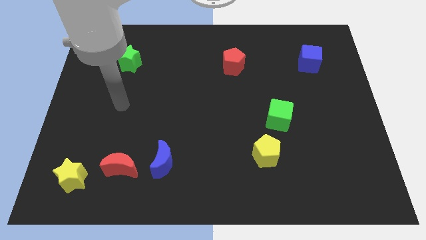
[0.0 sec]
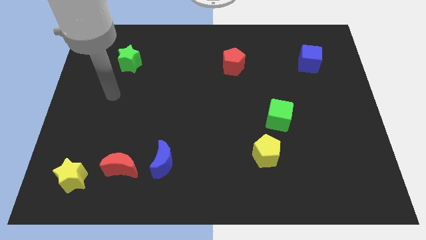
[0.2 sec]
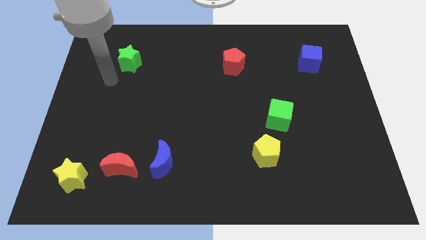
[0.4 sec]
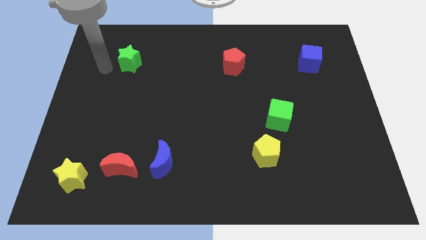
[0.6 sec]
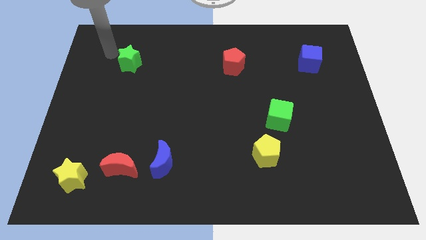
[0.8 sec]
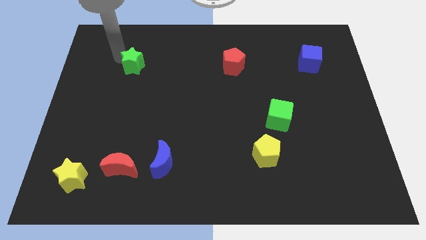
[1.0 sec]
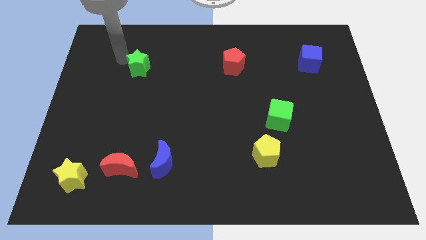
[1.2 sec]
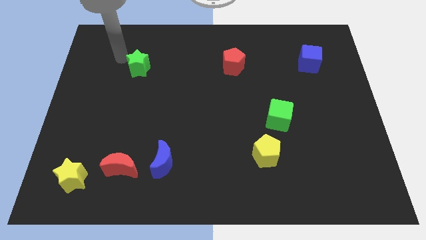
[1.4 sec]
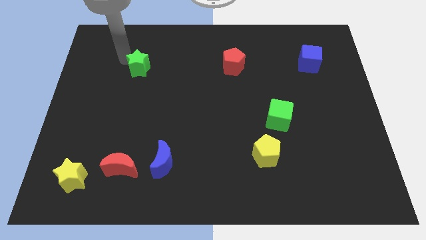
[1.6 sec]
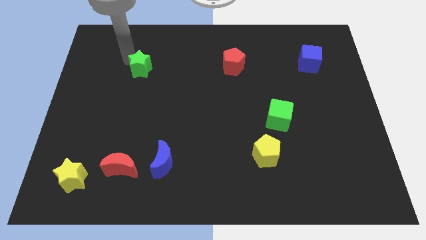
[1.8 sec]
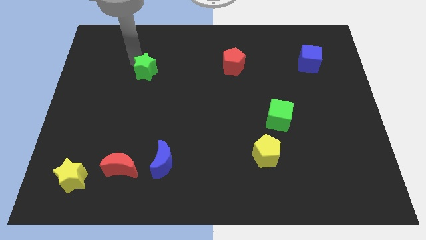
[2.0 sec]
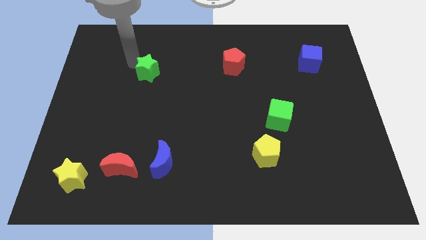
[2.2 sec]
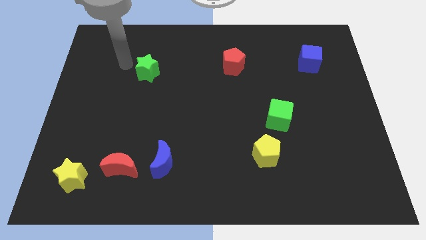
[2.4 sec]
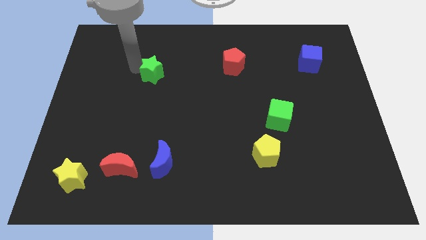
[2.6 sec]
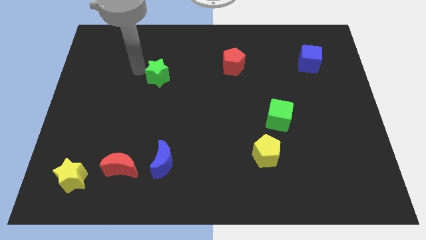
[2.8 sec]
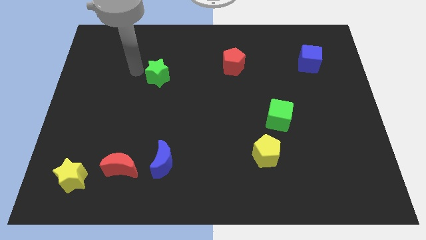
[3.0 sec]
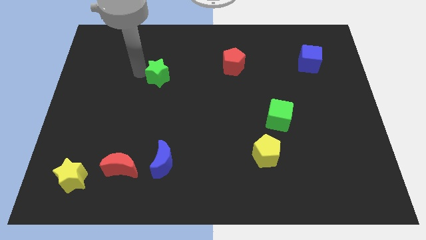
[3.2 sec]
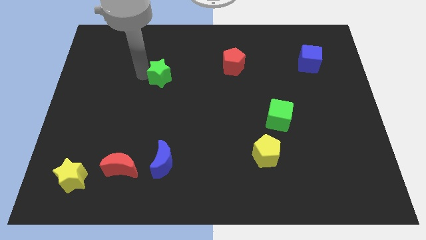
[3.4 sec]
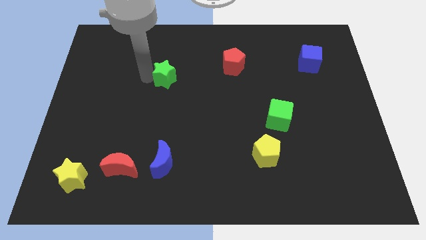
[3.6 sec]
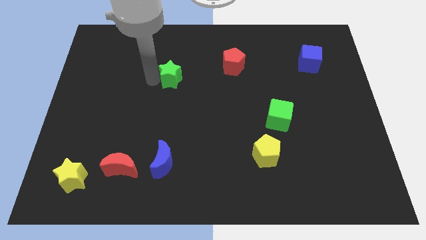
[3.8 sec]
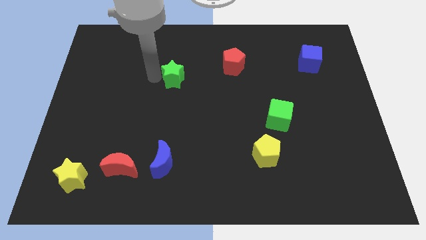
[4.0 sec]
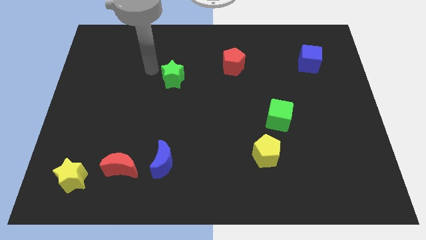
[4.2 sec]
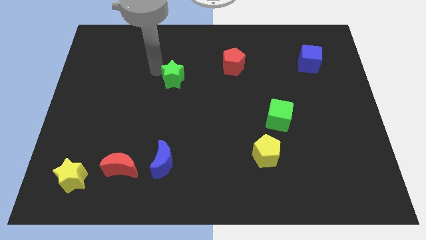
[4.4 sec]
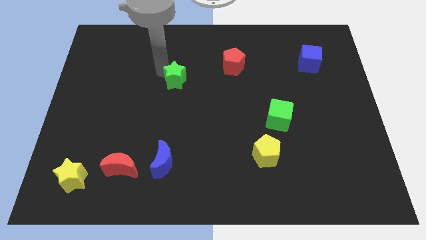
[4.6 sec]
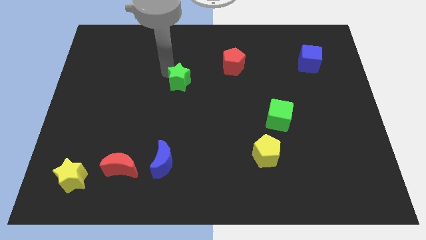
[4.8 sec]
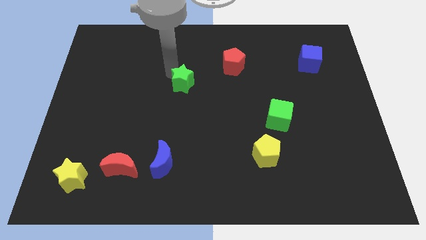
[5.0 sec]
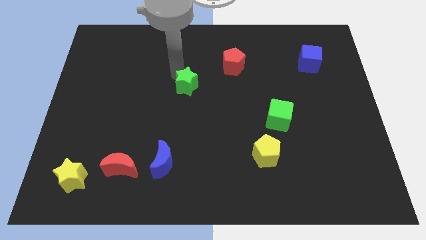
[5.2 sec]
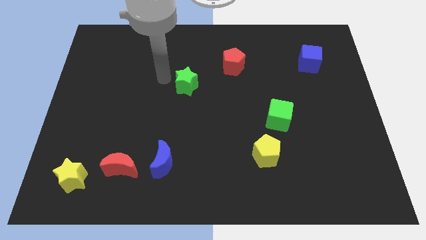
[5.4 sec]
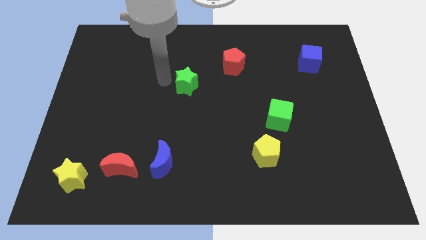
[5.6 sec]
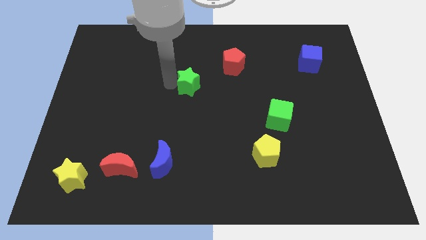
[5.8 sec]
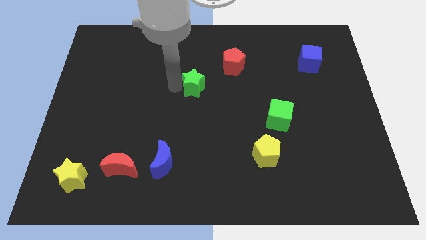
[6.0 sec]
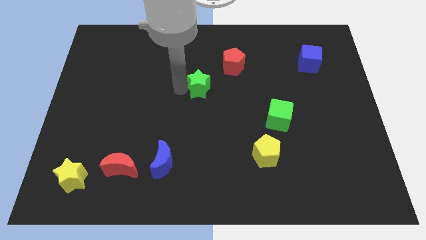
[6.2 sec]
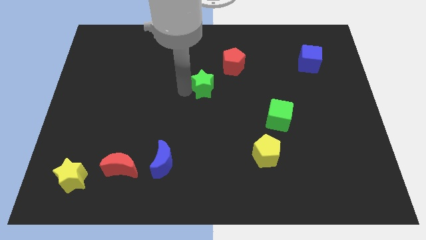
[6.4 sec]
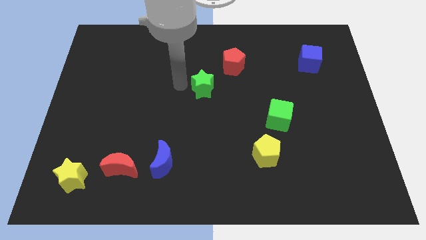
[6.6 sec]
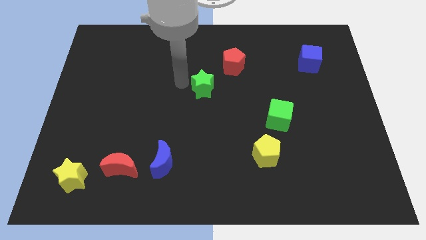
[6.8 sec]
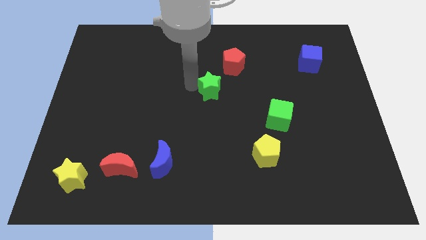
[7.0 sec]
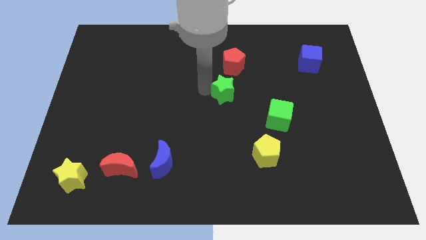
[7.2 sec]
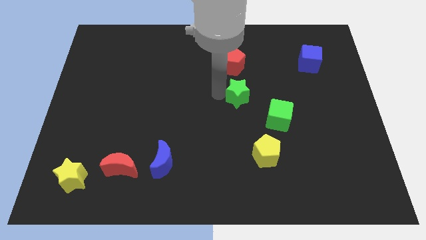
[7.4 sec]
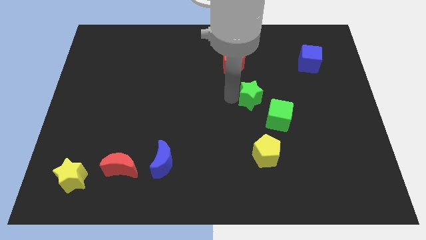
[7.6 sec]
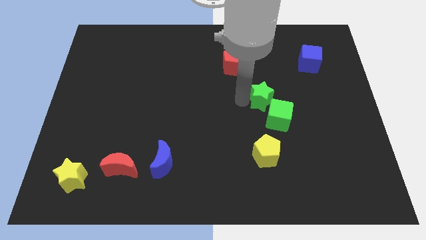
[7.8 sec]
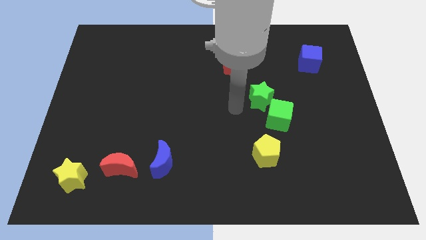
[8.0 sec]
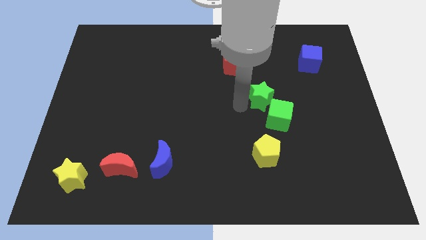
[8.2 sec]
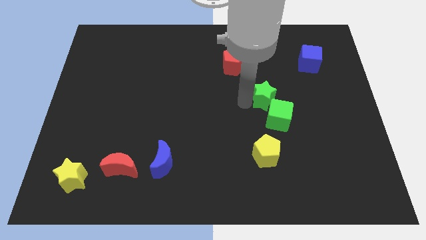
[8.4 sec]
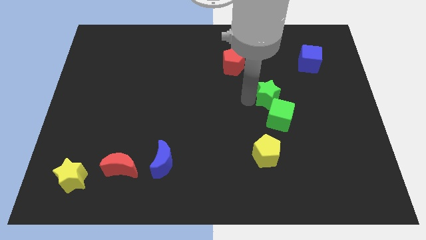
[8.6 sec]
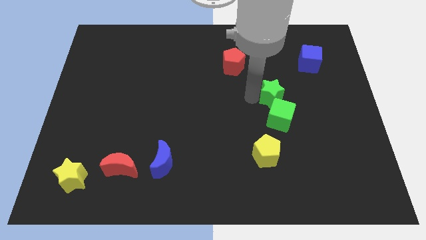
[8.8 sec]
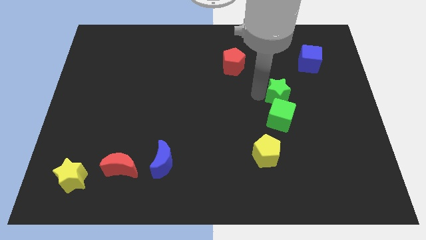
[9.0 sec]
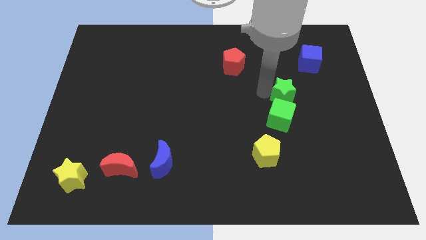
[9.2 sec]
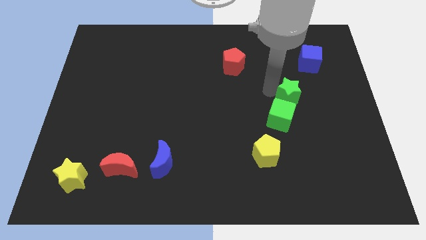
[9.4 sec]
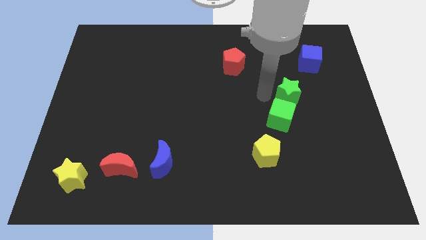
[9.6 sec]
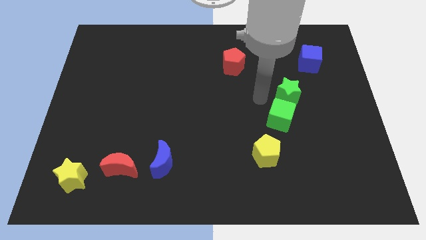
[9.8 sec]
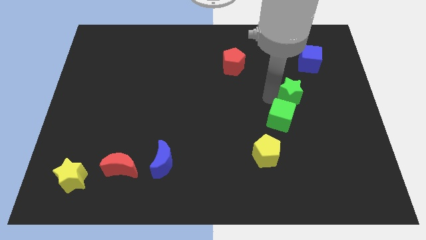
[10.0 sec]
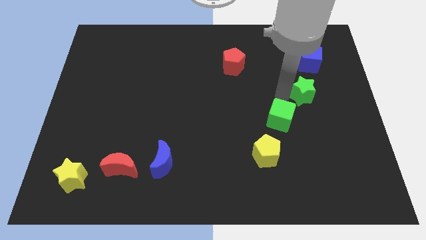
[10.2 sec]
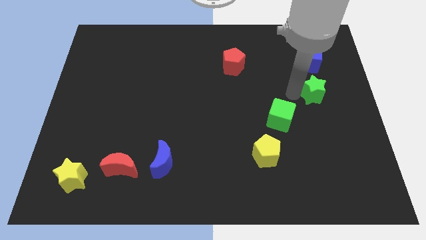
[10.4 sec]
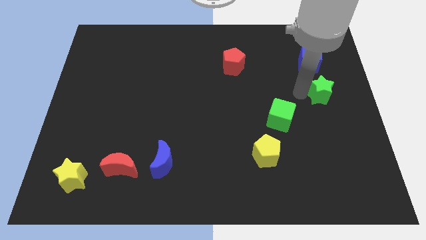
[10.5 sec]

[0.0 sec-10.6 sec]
slide the green star to the center right
